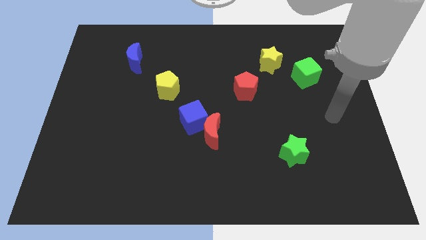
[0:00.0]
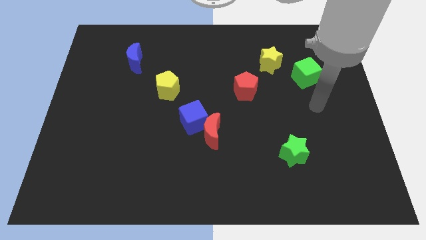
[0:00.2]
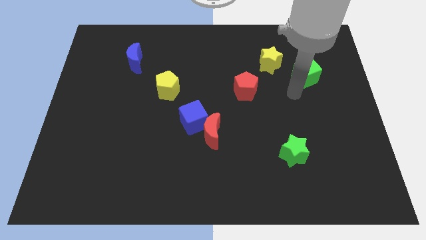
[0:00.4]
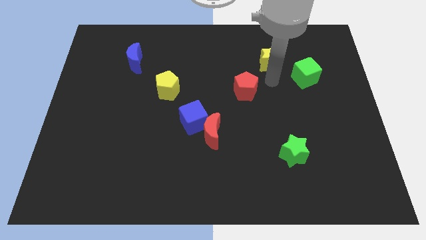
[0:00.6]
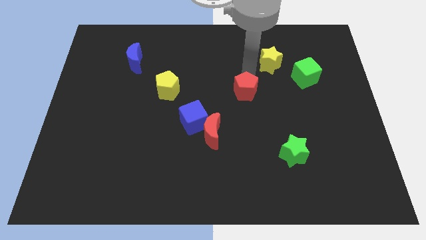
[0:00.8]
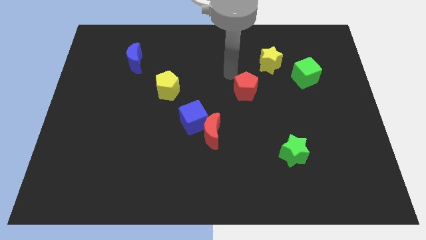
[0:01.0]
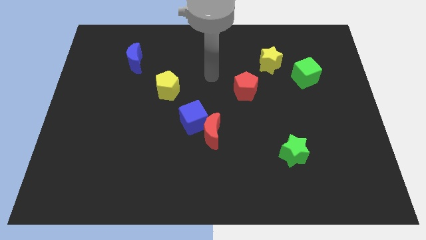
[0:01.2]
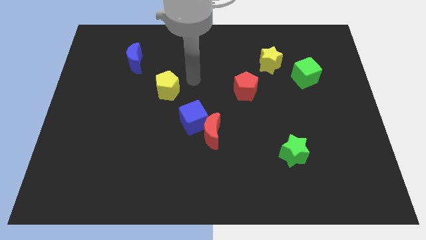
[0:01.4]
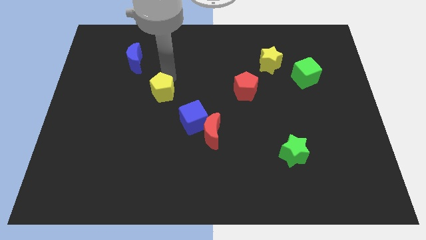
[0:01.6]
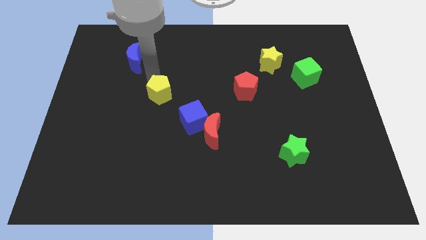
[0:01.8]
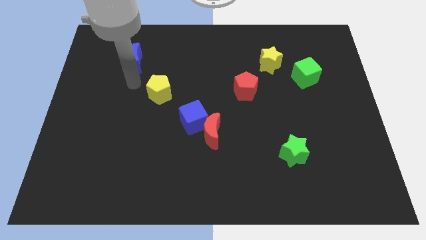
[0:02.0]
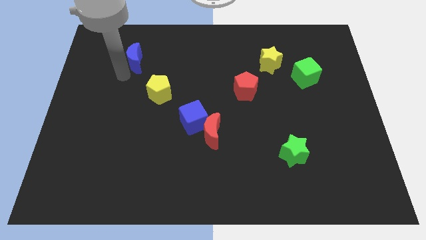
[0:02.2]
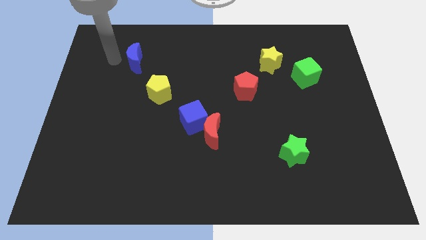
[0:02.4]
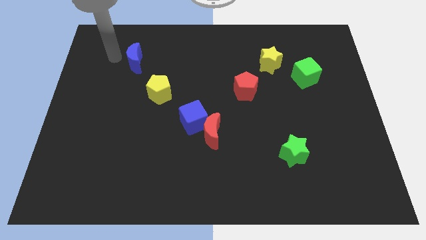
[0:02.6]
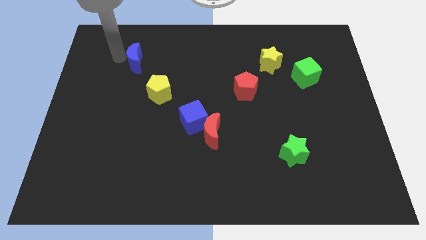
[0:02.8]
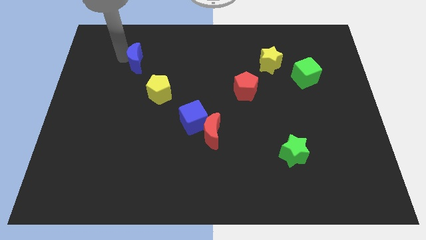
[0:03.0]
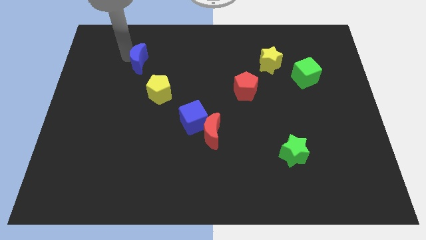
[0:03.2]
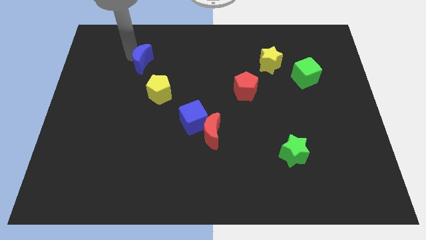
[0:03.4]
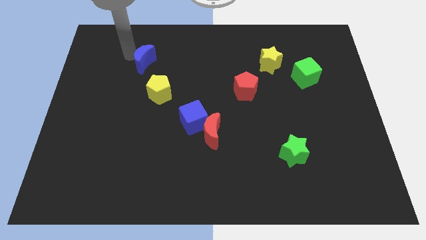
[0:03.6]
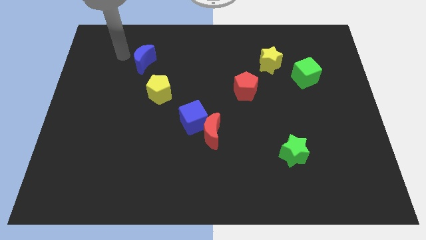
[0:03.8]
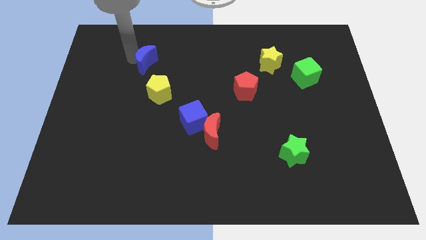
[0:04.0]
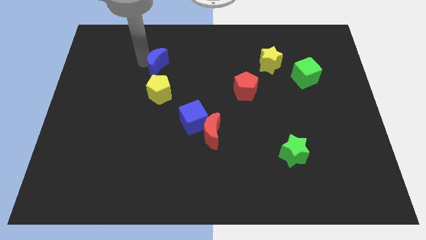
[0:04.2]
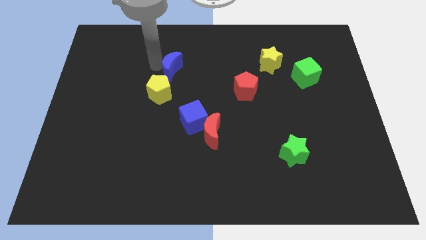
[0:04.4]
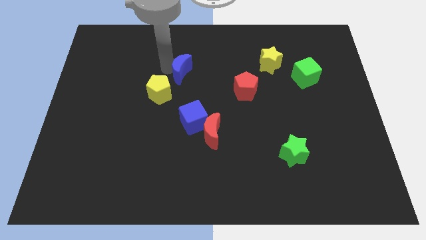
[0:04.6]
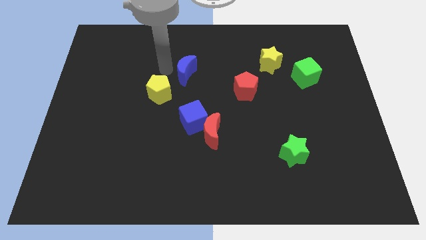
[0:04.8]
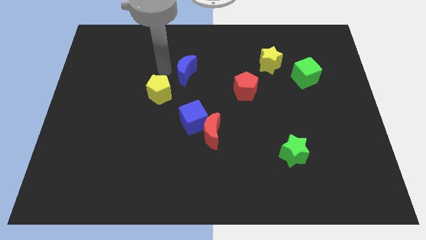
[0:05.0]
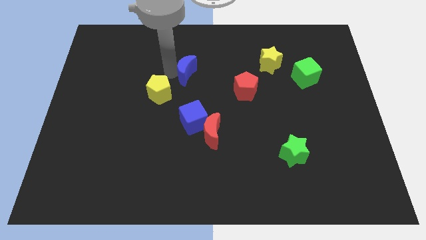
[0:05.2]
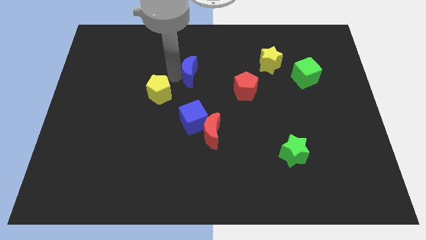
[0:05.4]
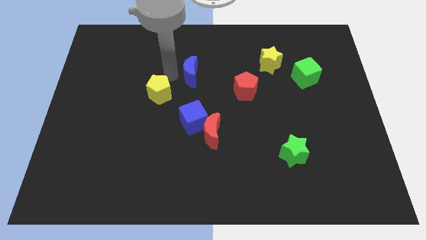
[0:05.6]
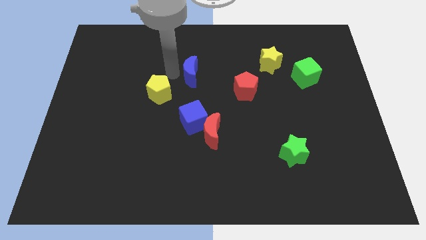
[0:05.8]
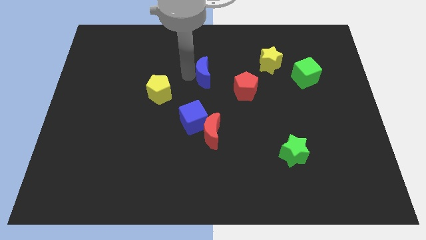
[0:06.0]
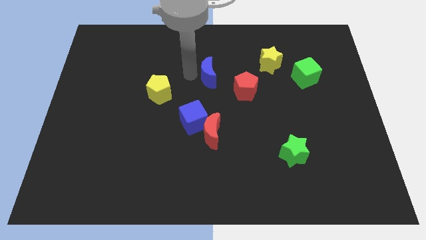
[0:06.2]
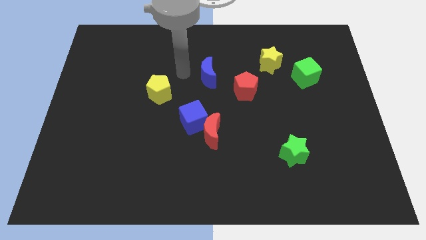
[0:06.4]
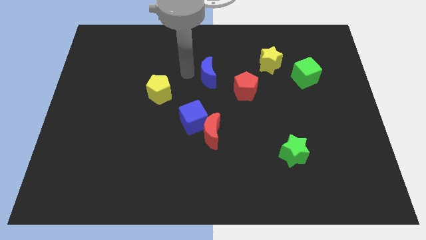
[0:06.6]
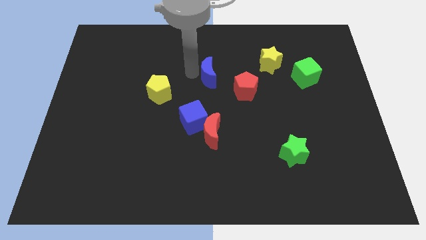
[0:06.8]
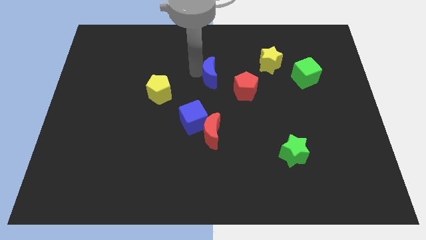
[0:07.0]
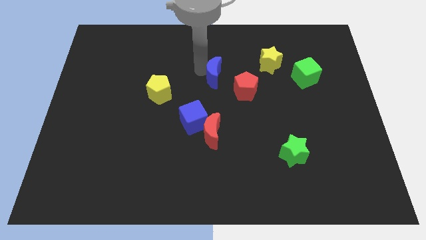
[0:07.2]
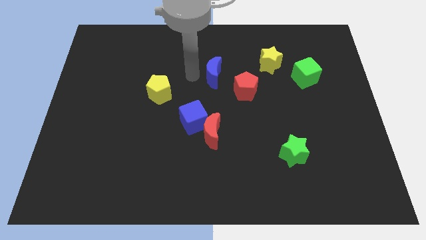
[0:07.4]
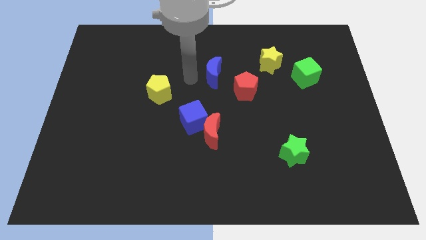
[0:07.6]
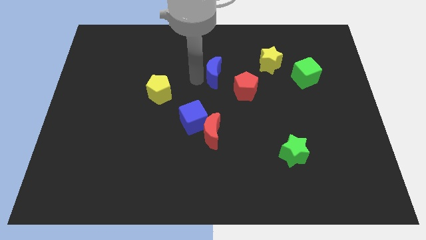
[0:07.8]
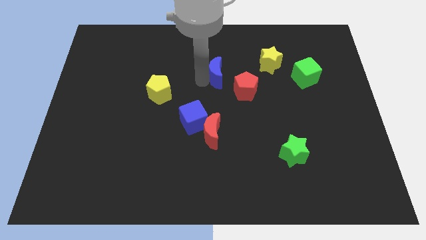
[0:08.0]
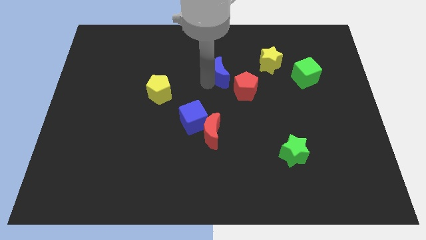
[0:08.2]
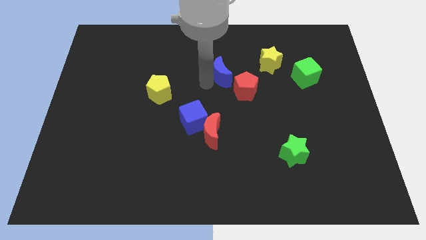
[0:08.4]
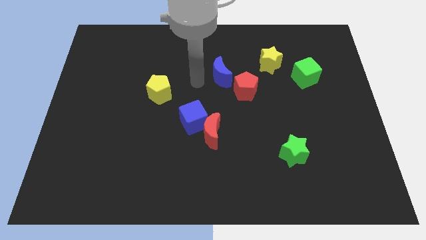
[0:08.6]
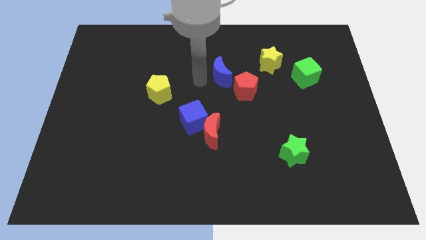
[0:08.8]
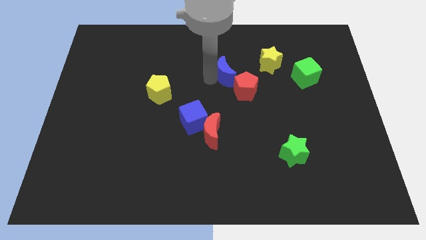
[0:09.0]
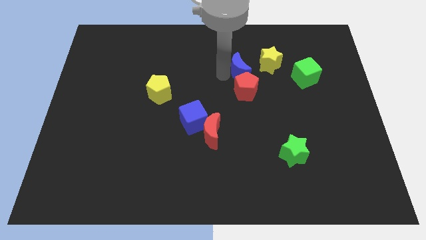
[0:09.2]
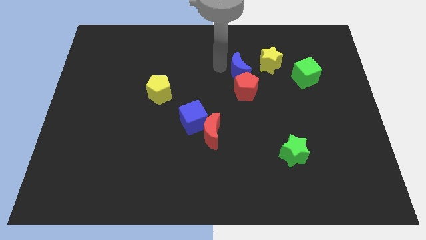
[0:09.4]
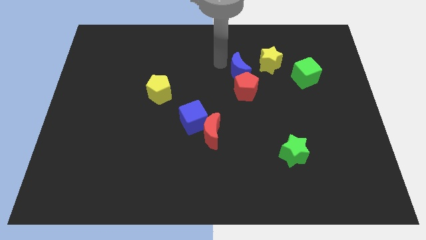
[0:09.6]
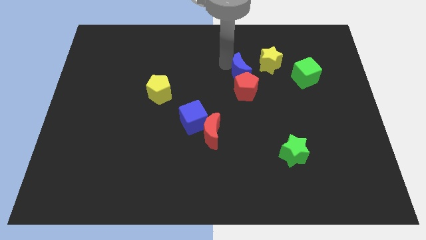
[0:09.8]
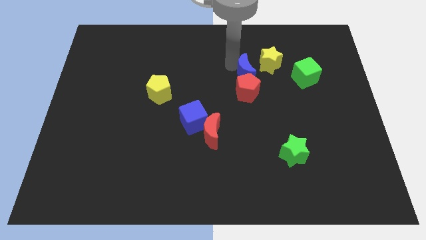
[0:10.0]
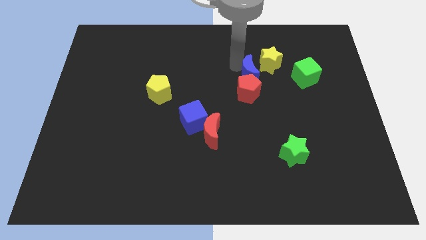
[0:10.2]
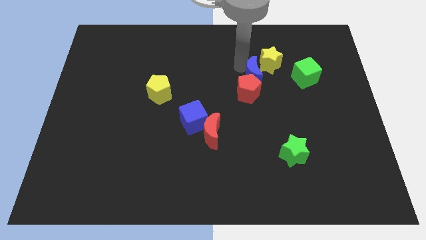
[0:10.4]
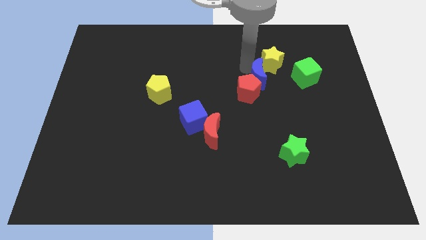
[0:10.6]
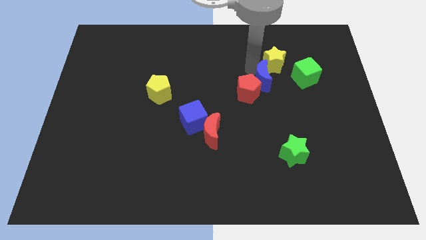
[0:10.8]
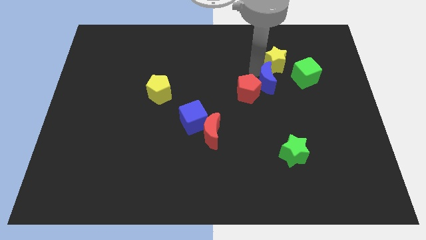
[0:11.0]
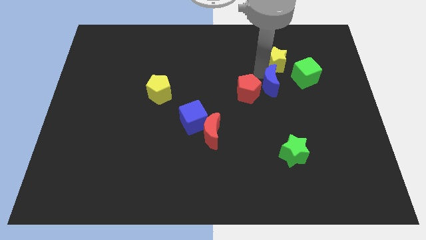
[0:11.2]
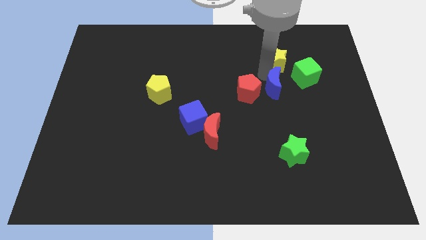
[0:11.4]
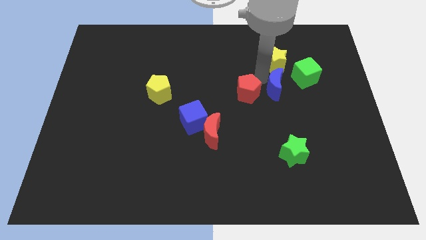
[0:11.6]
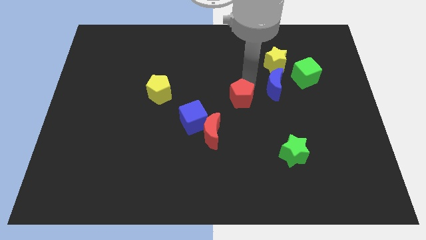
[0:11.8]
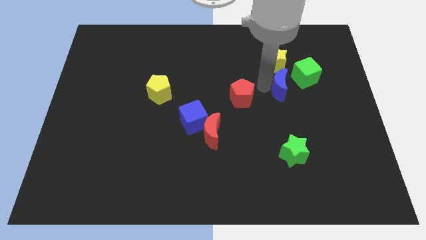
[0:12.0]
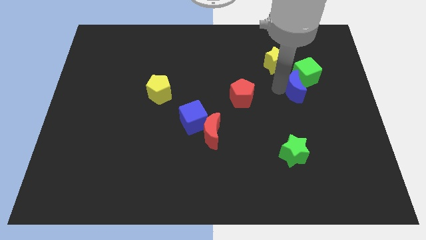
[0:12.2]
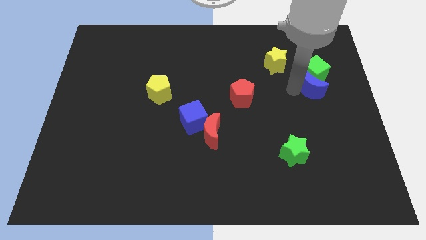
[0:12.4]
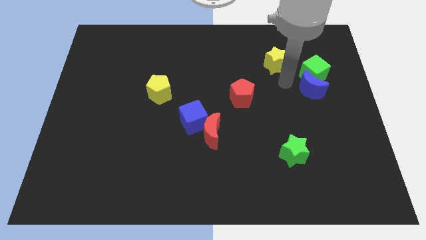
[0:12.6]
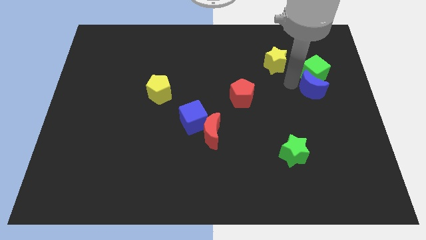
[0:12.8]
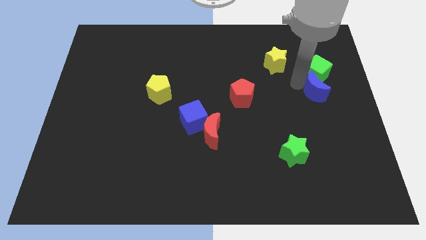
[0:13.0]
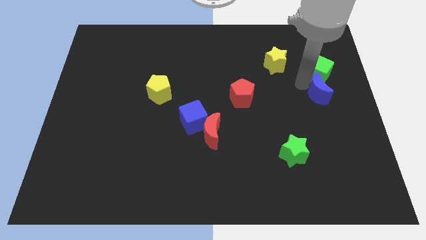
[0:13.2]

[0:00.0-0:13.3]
push the blue moon to the right side of the board

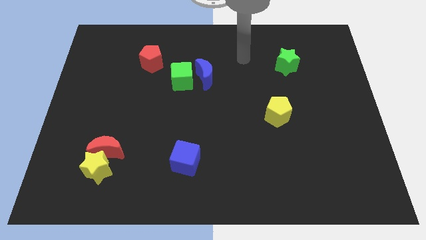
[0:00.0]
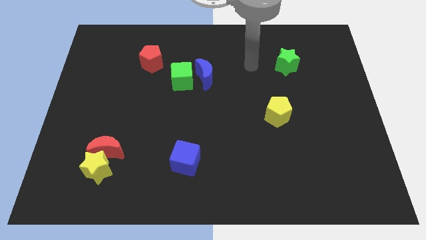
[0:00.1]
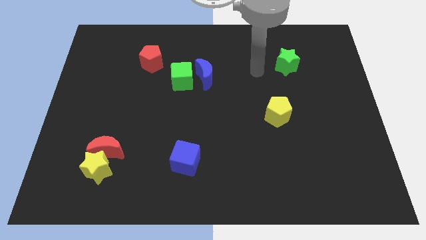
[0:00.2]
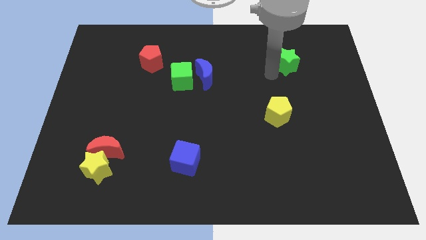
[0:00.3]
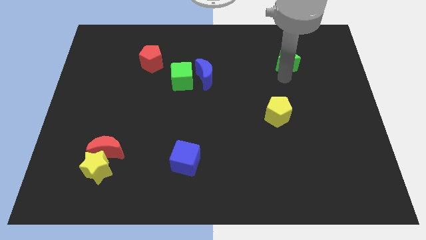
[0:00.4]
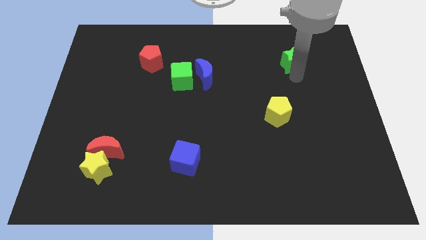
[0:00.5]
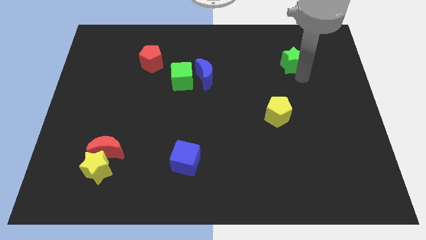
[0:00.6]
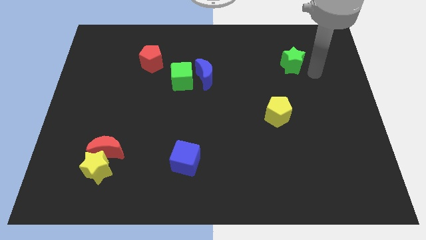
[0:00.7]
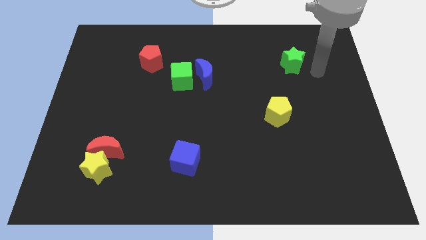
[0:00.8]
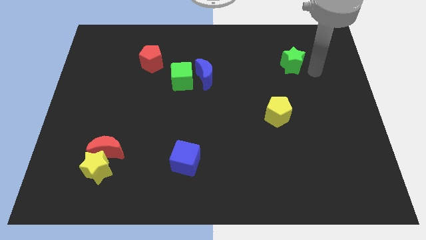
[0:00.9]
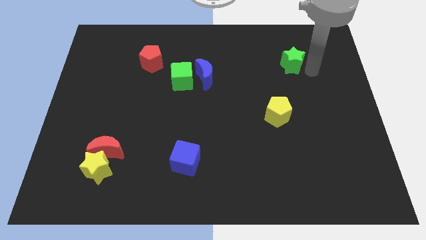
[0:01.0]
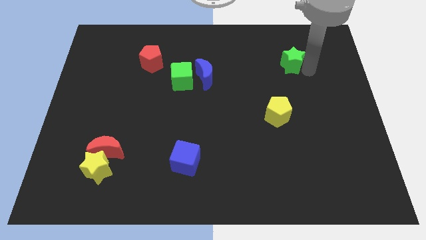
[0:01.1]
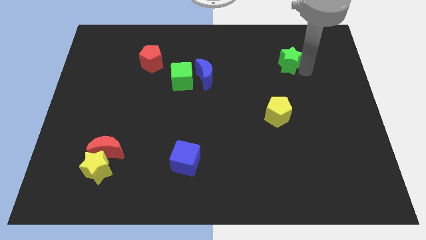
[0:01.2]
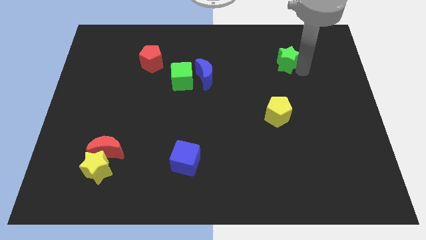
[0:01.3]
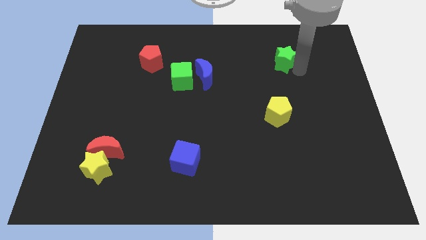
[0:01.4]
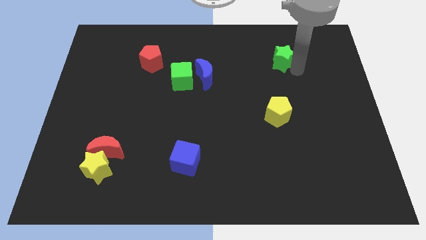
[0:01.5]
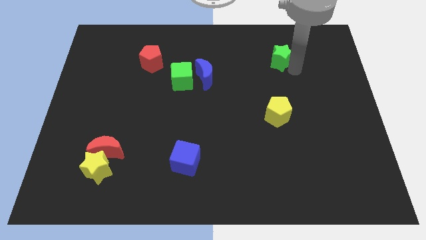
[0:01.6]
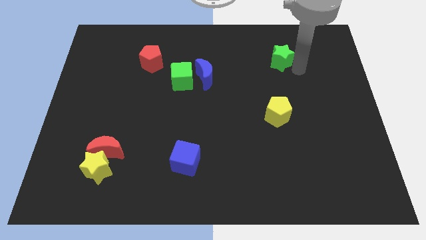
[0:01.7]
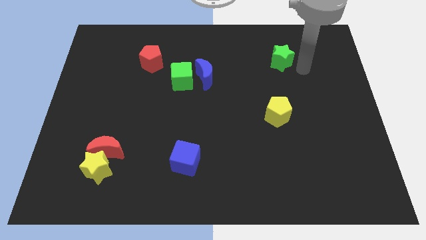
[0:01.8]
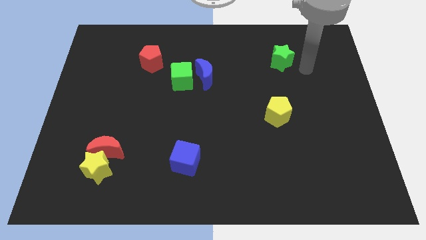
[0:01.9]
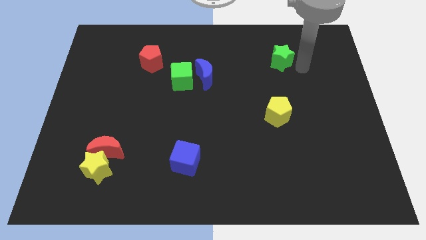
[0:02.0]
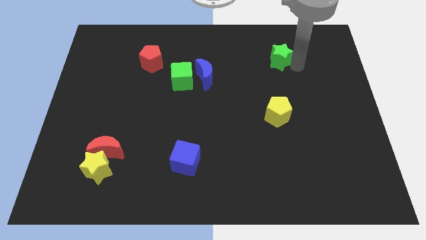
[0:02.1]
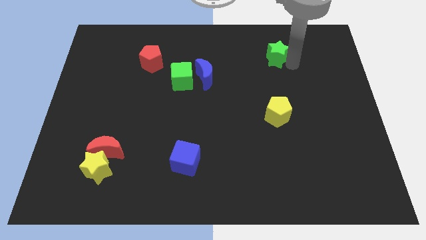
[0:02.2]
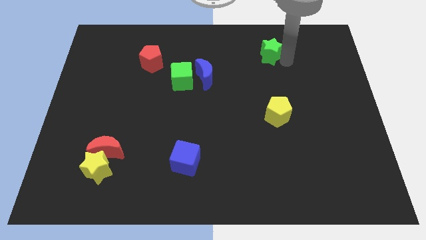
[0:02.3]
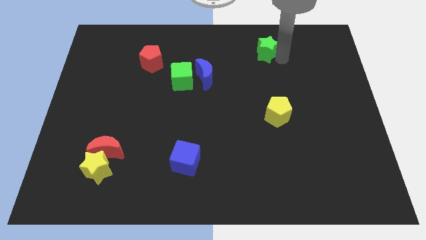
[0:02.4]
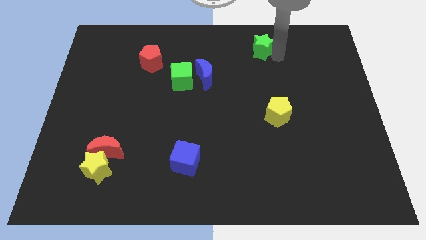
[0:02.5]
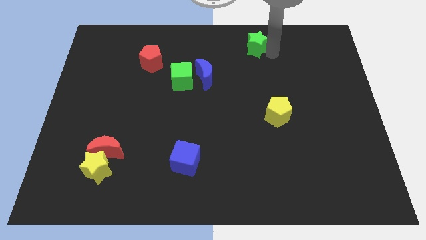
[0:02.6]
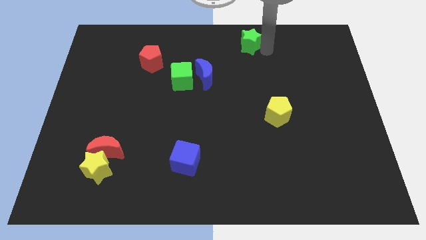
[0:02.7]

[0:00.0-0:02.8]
slide the green star to the top
